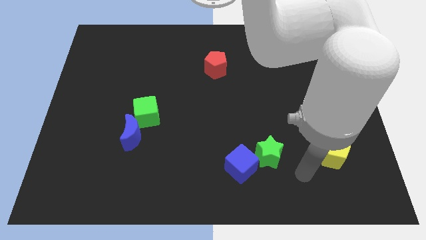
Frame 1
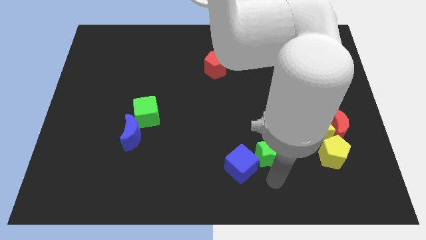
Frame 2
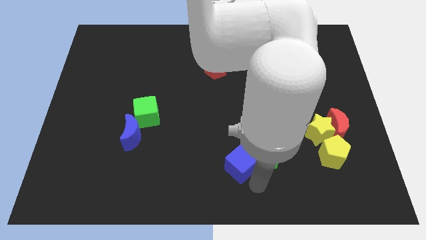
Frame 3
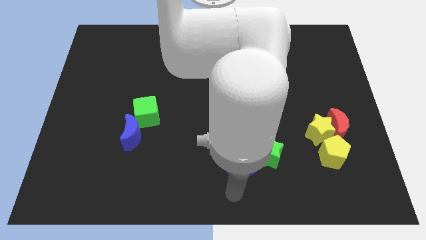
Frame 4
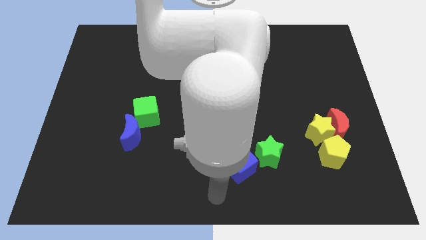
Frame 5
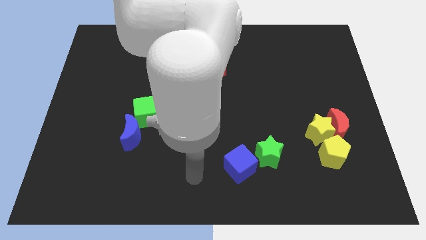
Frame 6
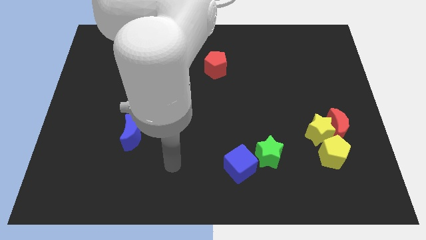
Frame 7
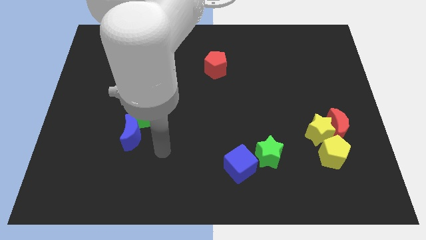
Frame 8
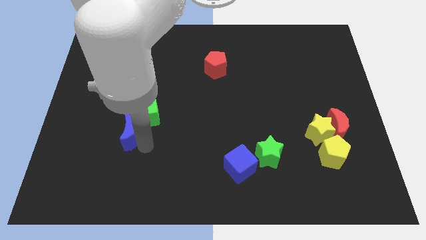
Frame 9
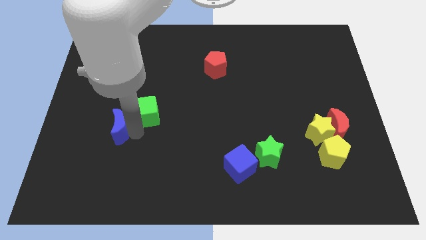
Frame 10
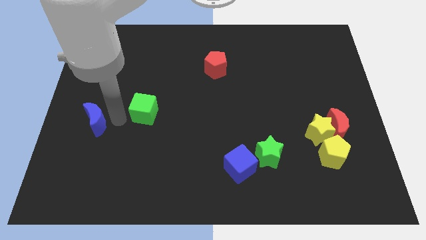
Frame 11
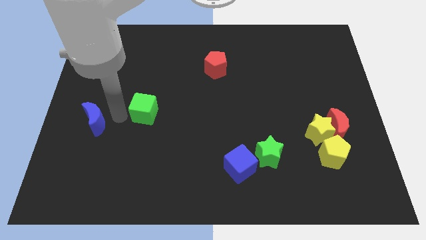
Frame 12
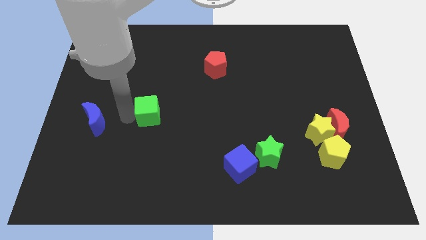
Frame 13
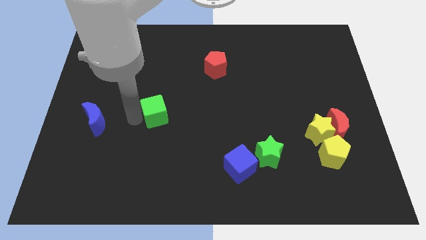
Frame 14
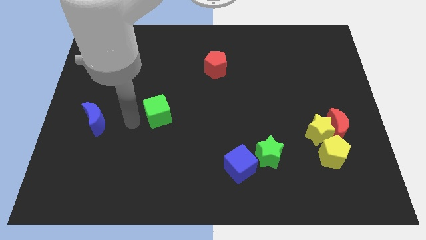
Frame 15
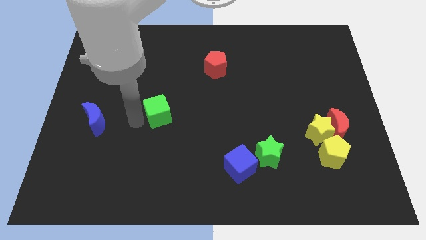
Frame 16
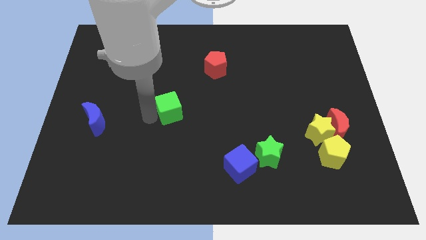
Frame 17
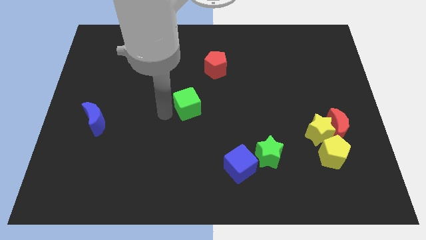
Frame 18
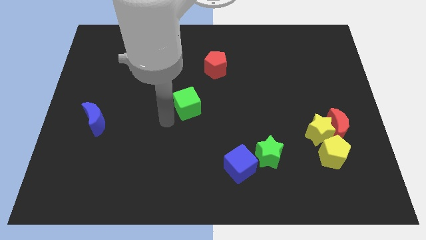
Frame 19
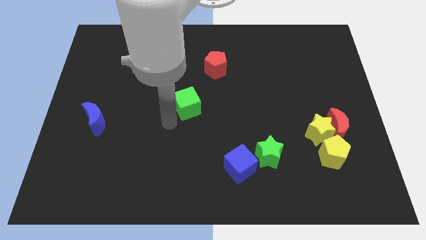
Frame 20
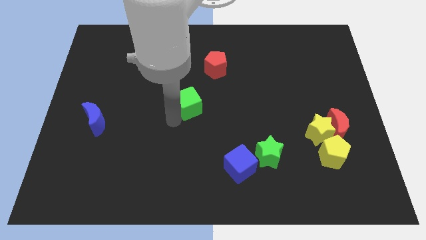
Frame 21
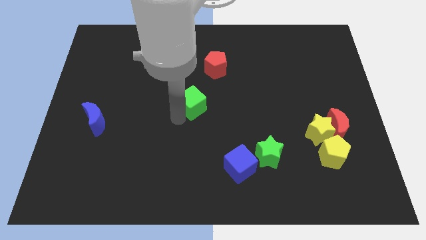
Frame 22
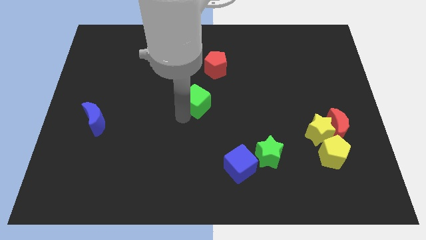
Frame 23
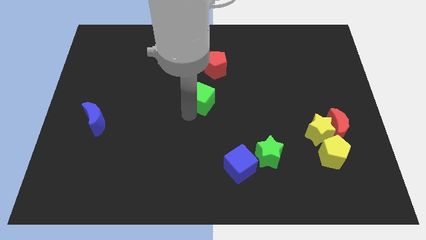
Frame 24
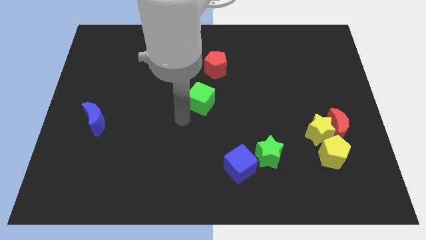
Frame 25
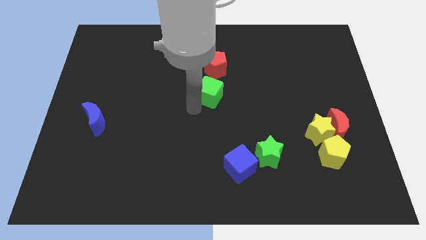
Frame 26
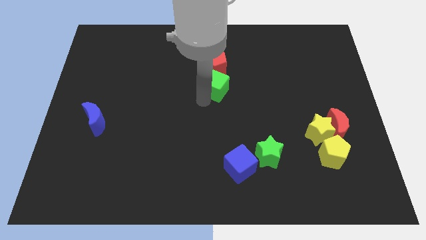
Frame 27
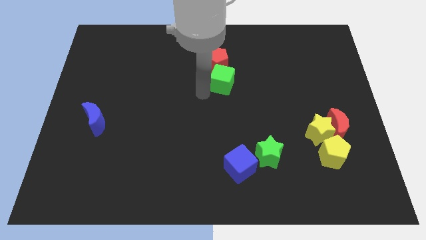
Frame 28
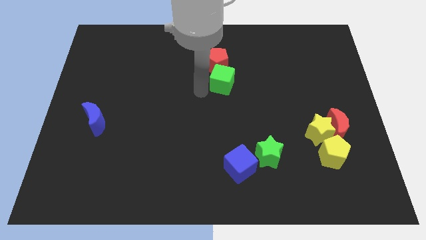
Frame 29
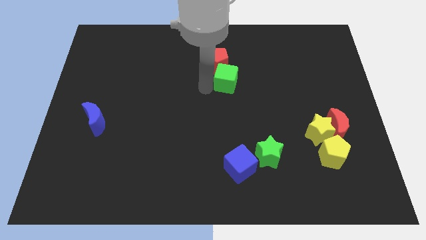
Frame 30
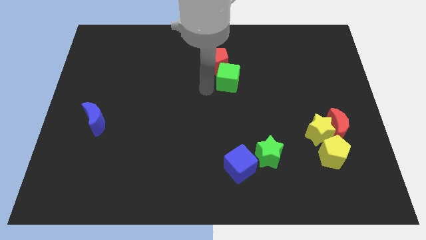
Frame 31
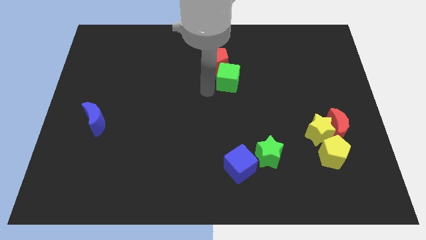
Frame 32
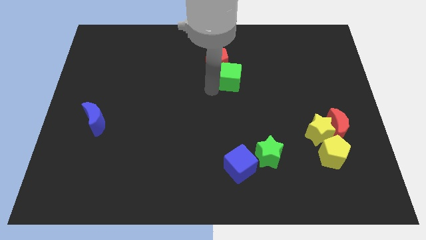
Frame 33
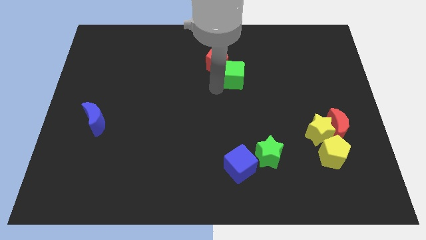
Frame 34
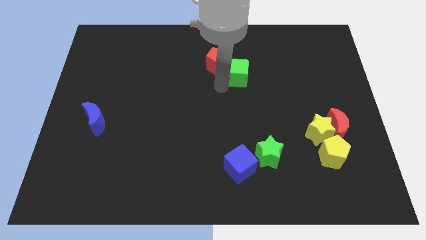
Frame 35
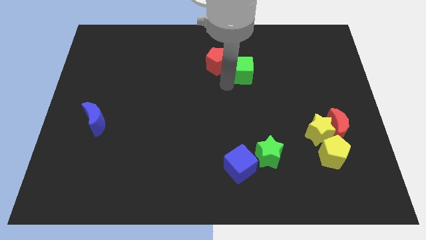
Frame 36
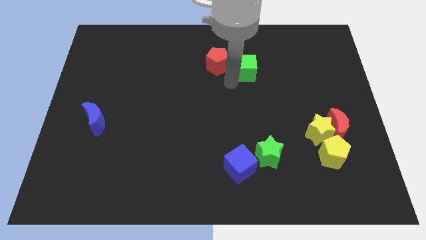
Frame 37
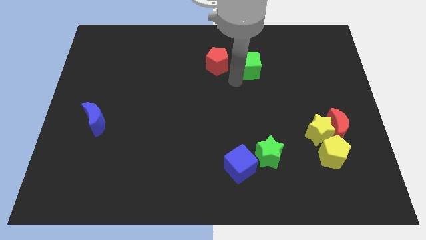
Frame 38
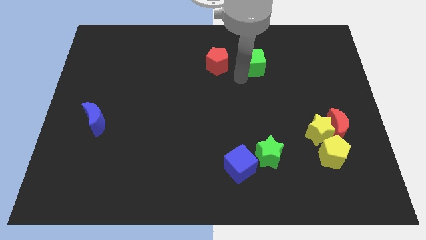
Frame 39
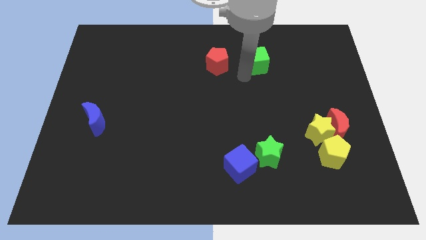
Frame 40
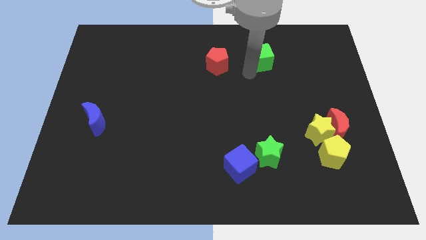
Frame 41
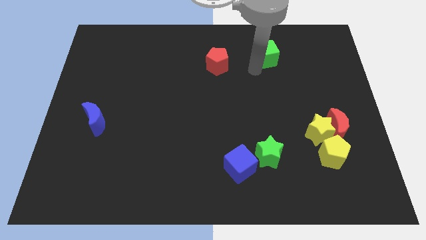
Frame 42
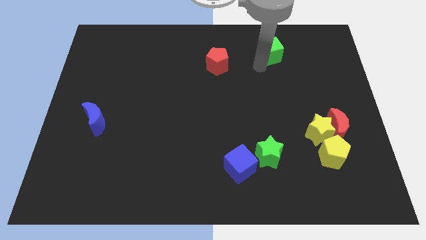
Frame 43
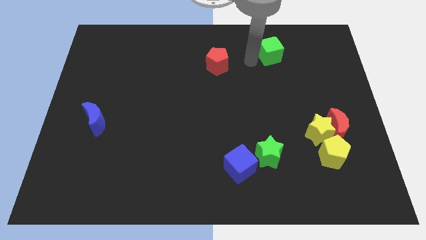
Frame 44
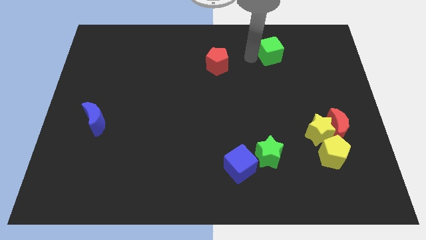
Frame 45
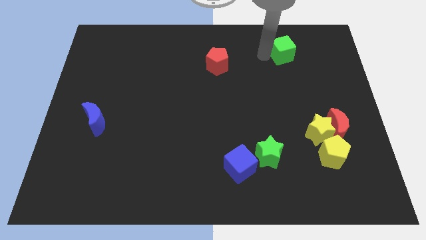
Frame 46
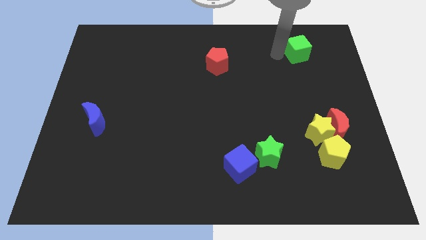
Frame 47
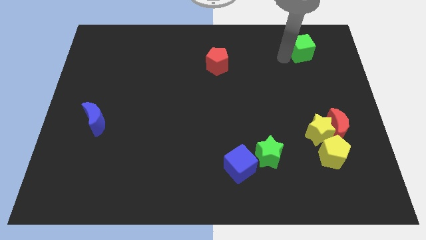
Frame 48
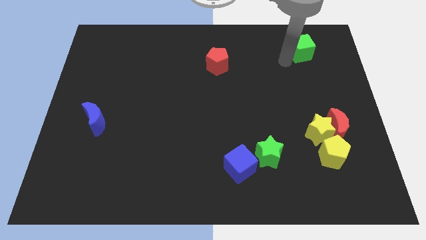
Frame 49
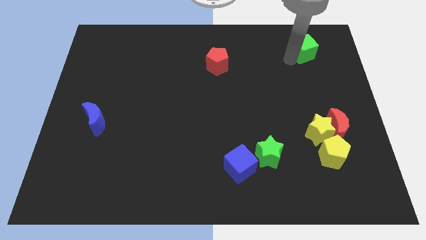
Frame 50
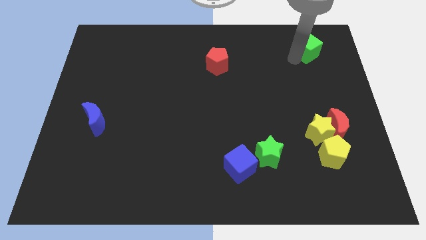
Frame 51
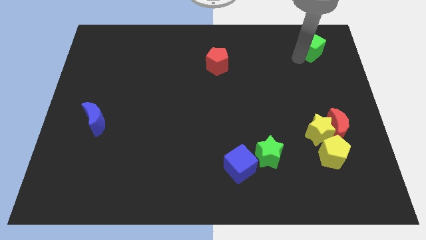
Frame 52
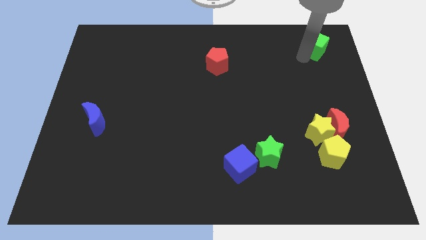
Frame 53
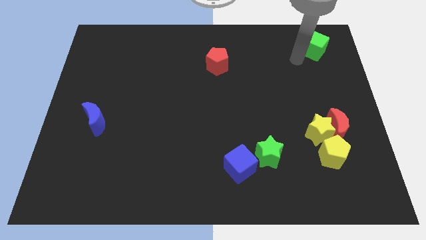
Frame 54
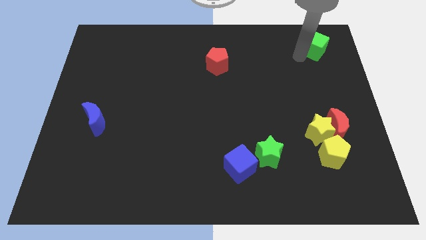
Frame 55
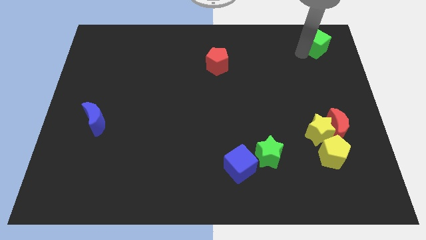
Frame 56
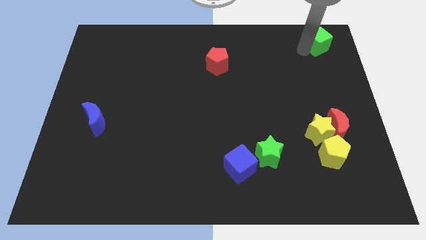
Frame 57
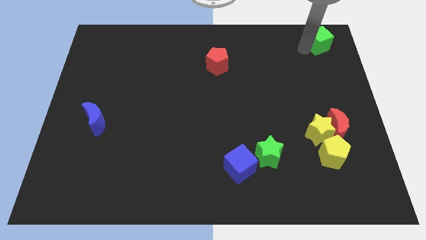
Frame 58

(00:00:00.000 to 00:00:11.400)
put the green cube to the top right of the board

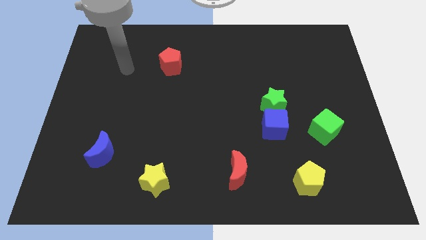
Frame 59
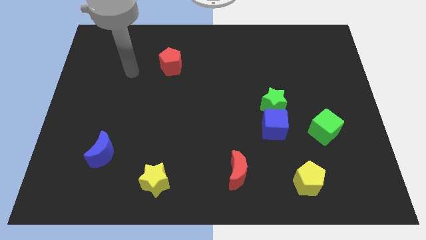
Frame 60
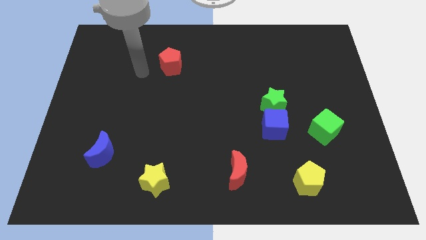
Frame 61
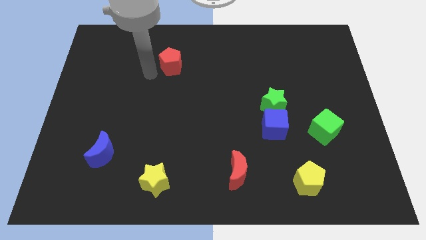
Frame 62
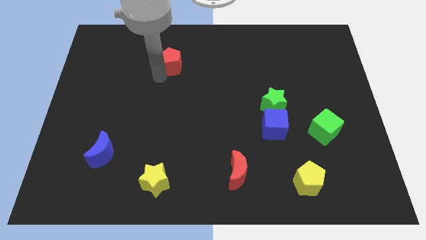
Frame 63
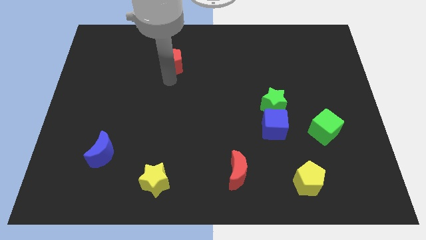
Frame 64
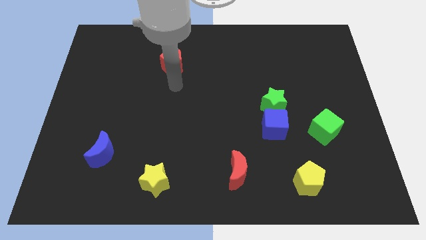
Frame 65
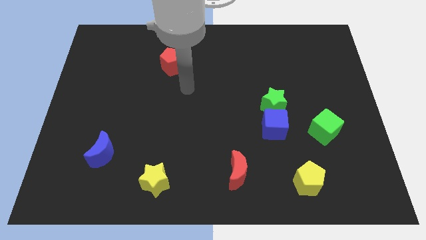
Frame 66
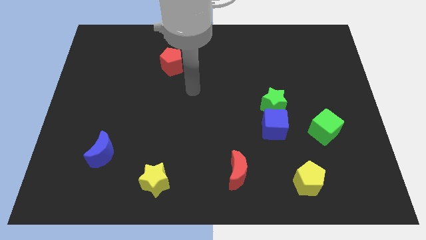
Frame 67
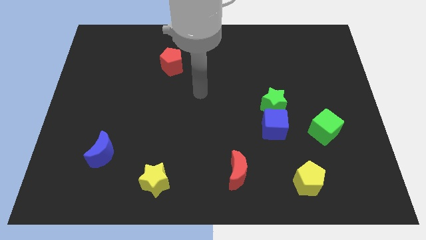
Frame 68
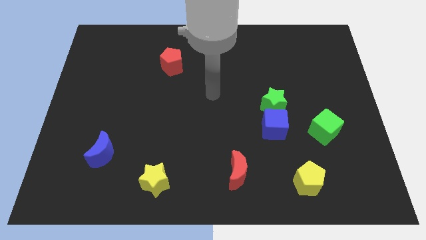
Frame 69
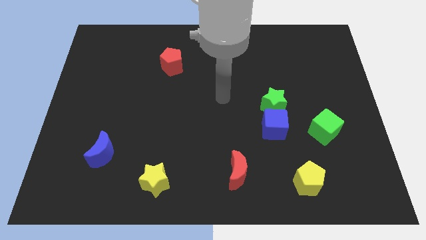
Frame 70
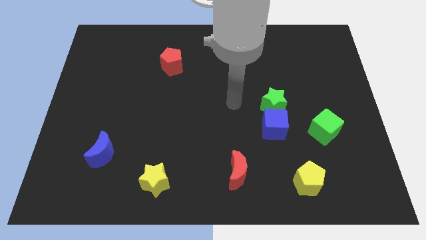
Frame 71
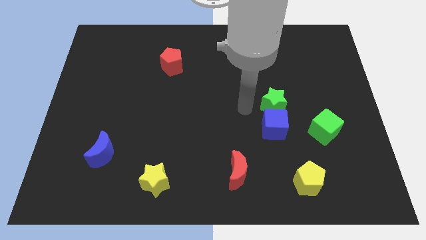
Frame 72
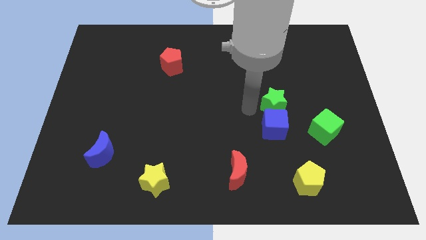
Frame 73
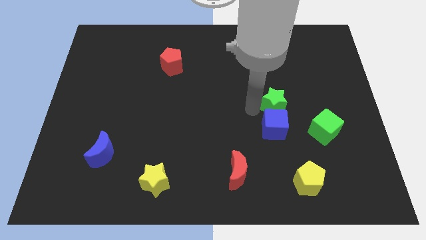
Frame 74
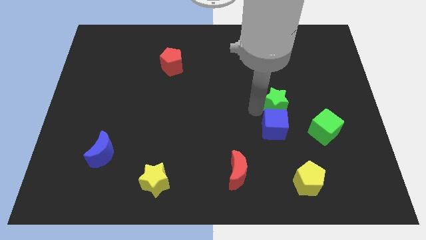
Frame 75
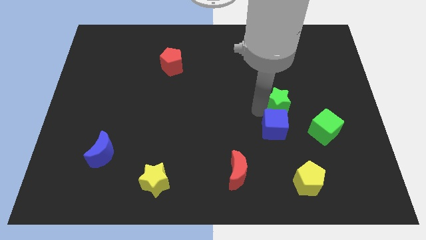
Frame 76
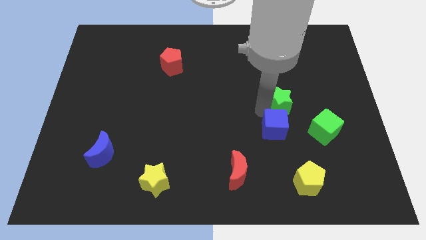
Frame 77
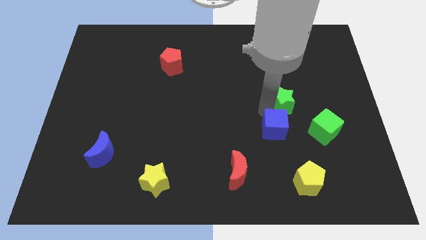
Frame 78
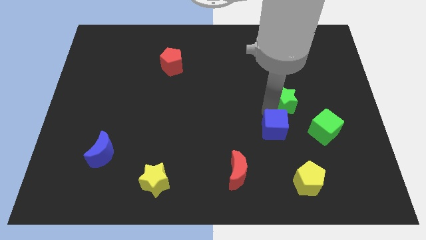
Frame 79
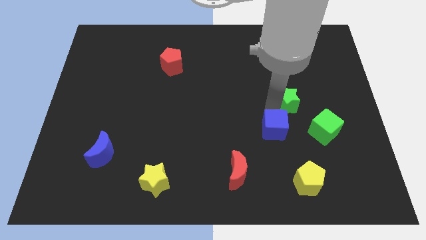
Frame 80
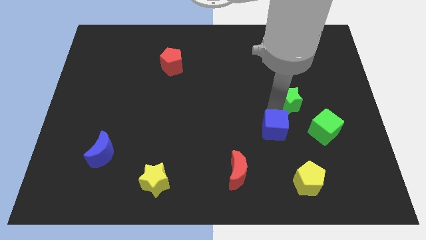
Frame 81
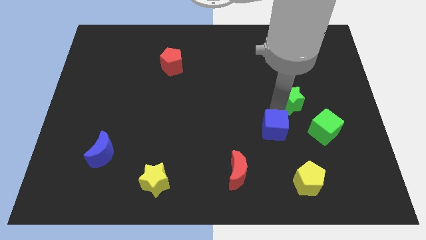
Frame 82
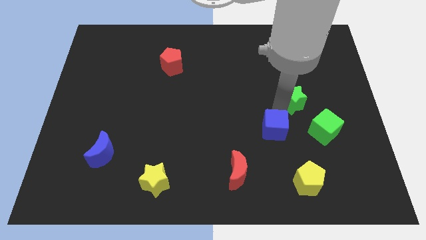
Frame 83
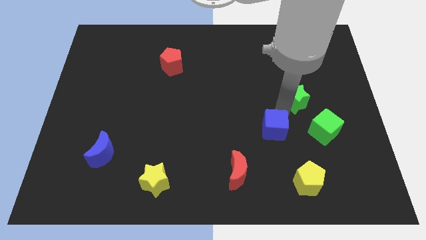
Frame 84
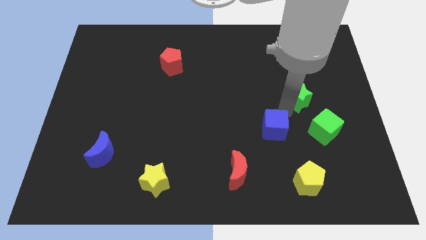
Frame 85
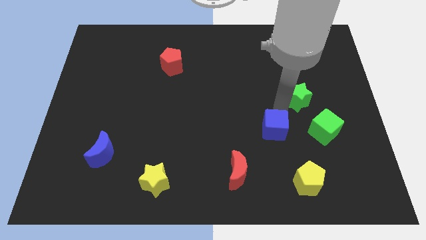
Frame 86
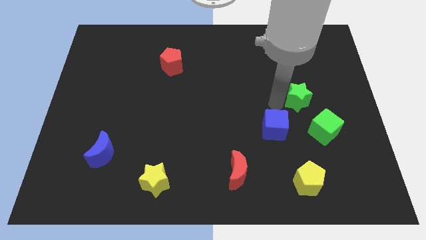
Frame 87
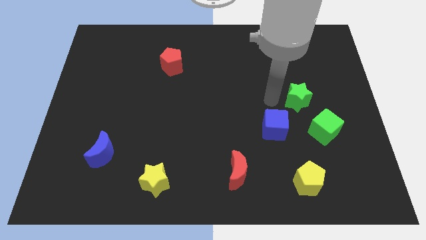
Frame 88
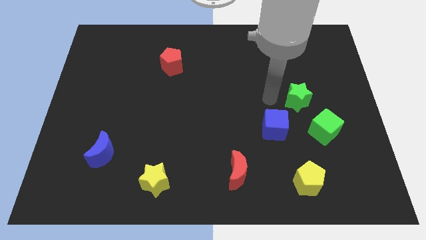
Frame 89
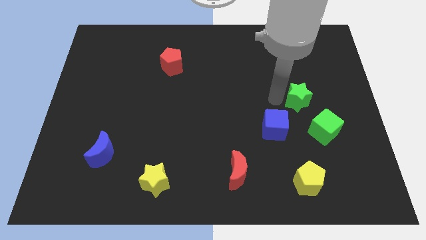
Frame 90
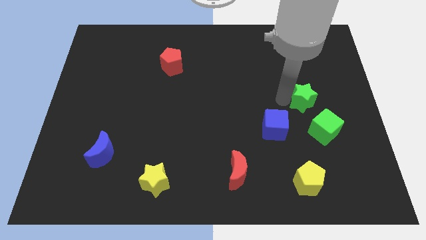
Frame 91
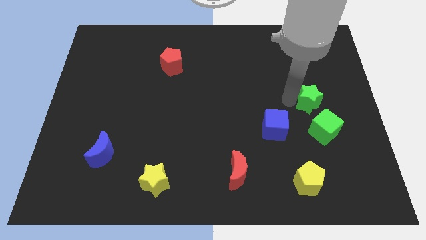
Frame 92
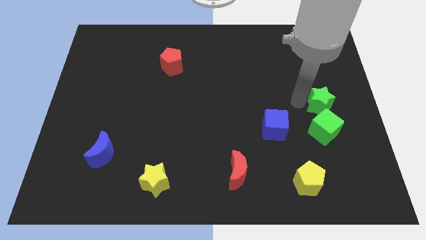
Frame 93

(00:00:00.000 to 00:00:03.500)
push the green star to the center right
